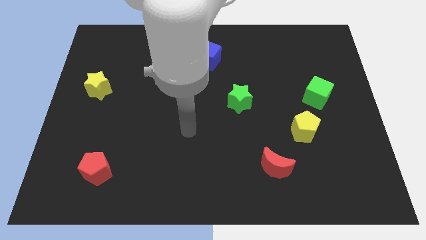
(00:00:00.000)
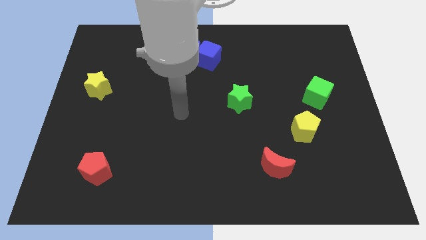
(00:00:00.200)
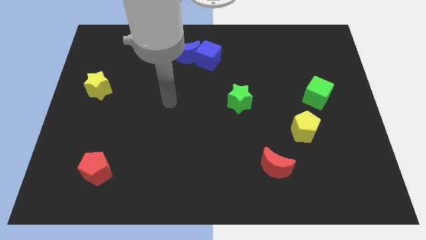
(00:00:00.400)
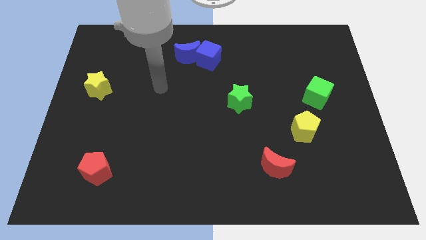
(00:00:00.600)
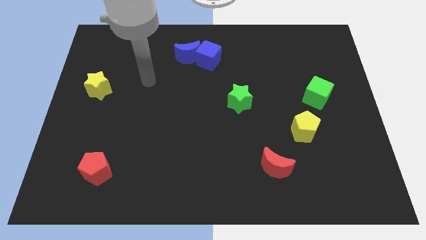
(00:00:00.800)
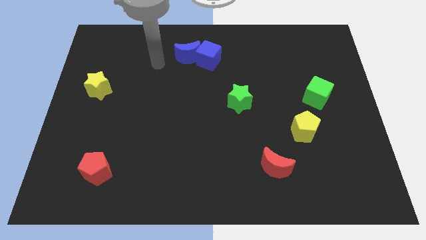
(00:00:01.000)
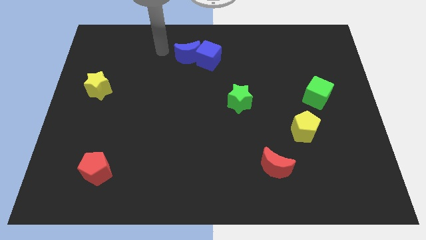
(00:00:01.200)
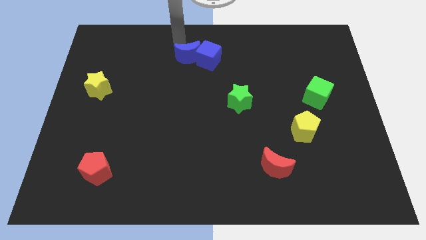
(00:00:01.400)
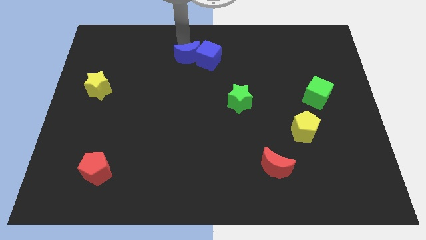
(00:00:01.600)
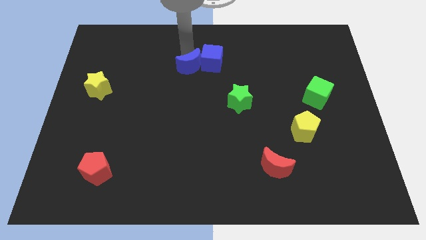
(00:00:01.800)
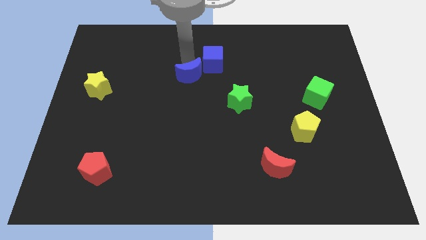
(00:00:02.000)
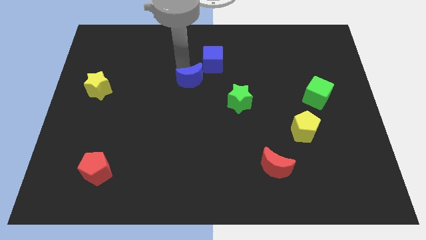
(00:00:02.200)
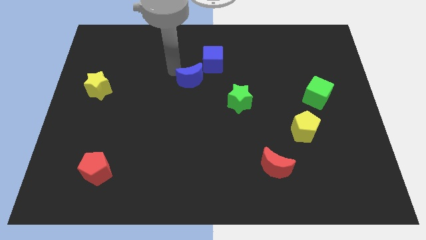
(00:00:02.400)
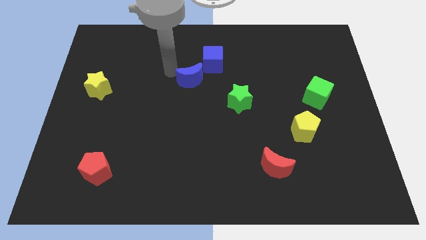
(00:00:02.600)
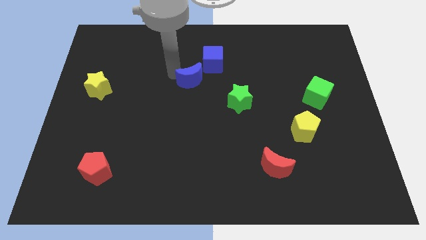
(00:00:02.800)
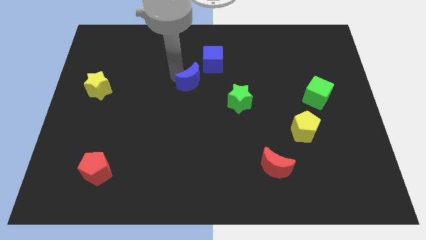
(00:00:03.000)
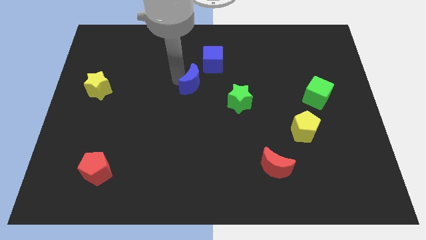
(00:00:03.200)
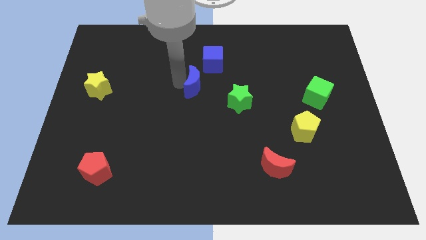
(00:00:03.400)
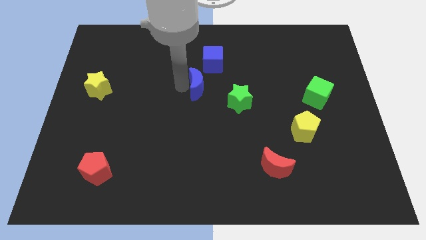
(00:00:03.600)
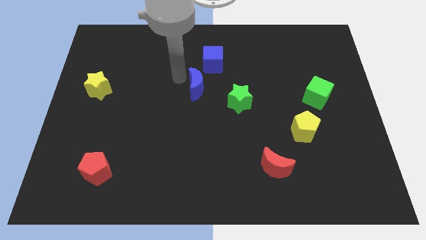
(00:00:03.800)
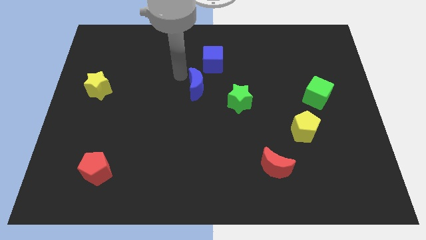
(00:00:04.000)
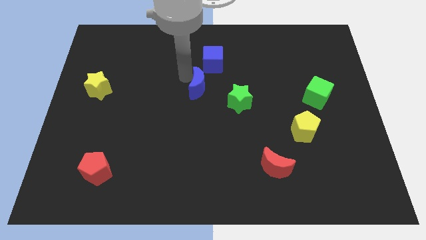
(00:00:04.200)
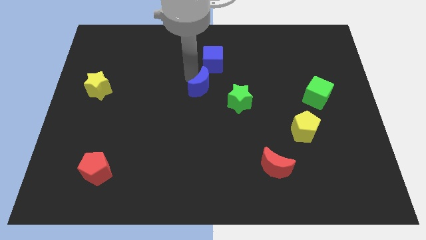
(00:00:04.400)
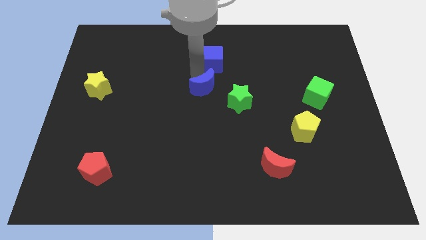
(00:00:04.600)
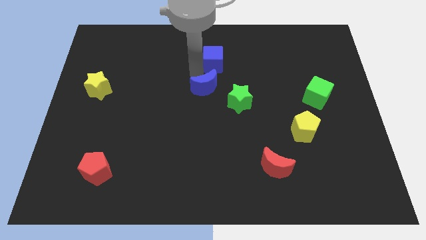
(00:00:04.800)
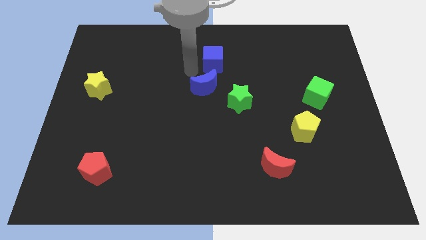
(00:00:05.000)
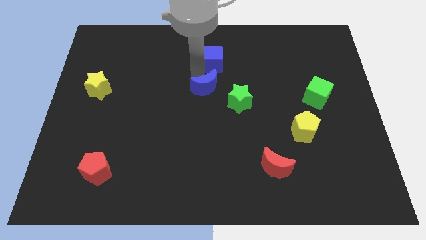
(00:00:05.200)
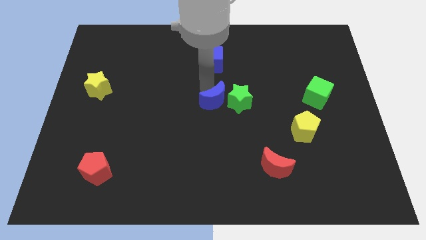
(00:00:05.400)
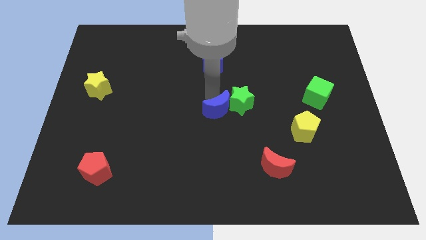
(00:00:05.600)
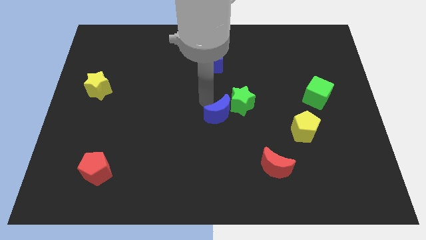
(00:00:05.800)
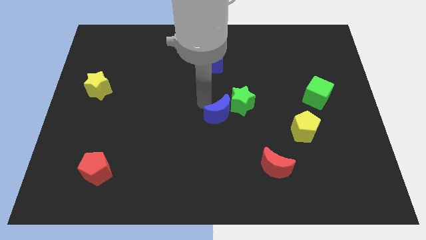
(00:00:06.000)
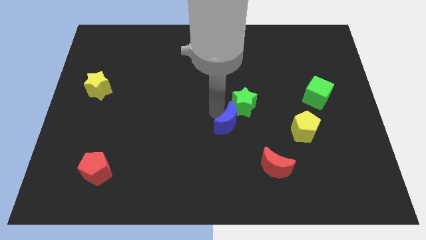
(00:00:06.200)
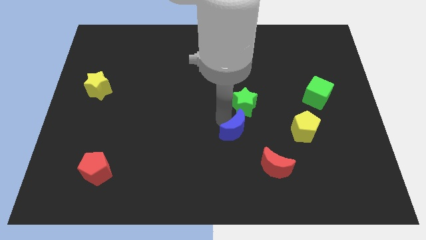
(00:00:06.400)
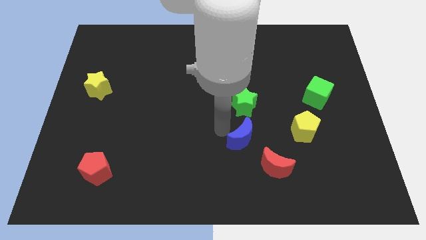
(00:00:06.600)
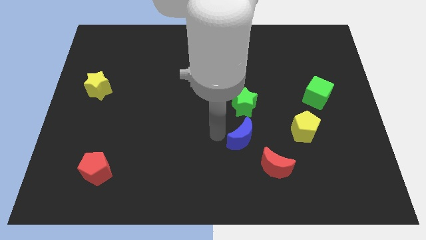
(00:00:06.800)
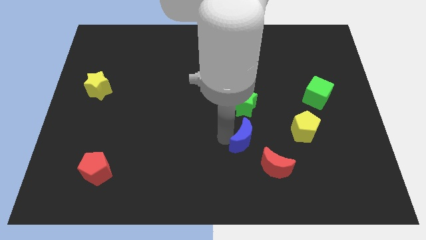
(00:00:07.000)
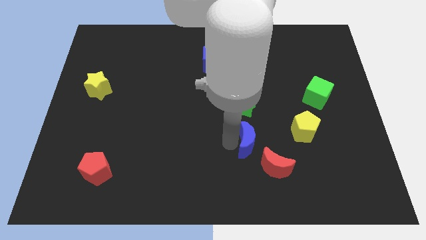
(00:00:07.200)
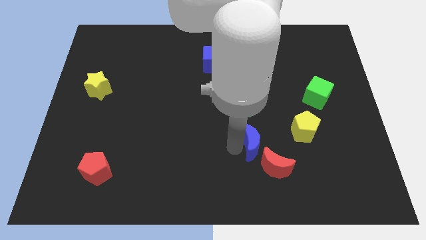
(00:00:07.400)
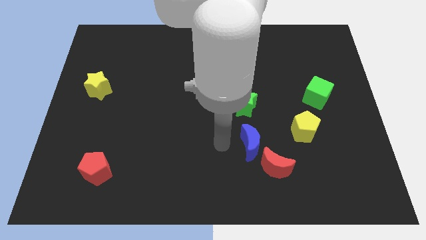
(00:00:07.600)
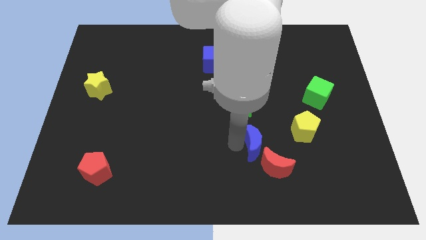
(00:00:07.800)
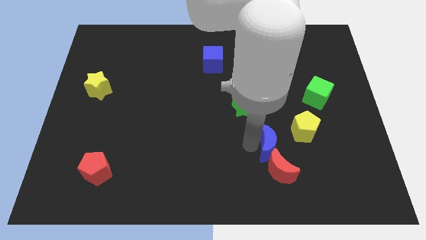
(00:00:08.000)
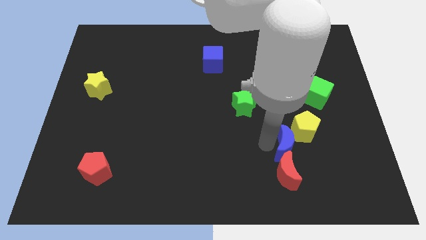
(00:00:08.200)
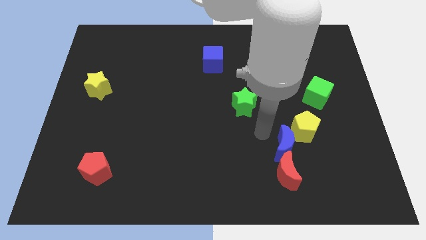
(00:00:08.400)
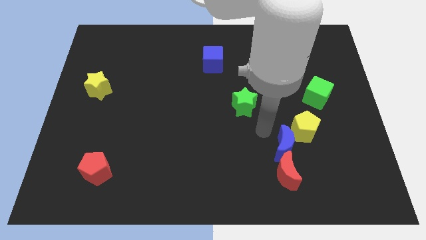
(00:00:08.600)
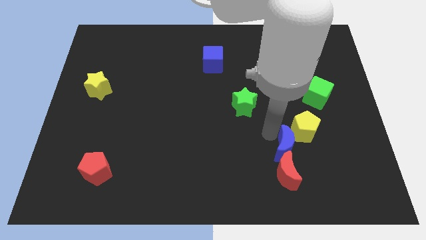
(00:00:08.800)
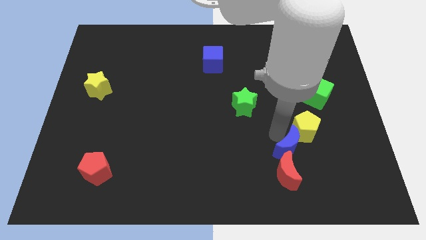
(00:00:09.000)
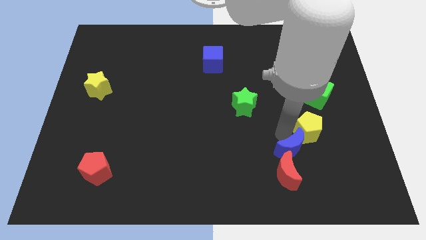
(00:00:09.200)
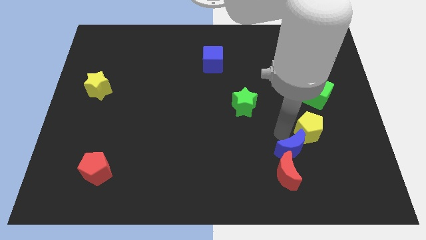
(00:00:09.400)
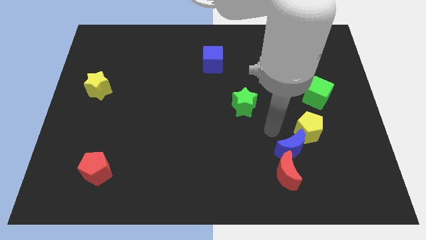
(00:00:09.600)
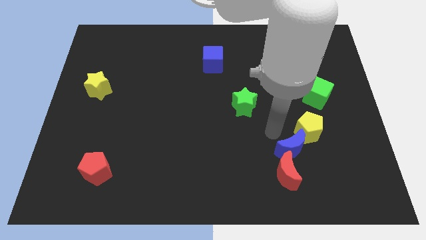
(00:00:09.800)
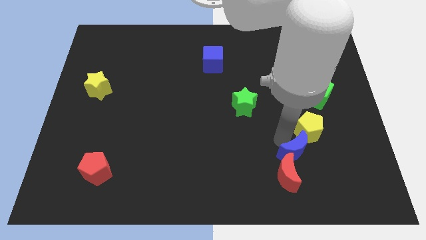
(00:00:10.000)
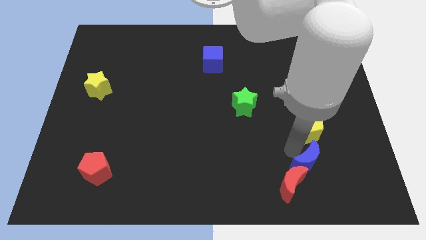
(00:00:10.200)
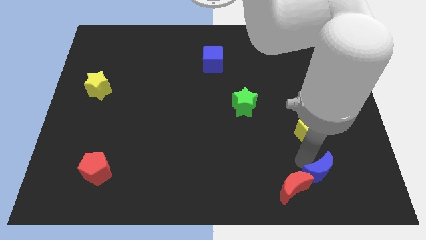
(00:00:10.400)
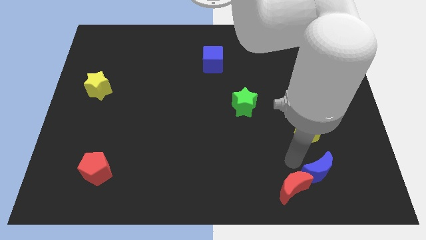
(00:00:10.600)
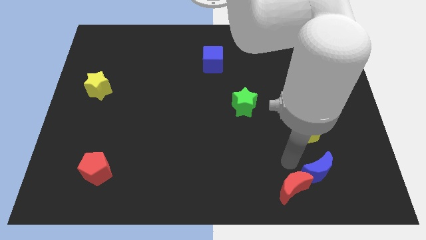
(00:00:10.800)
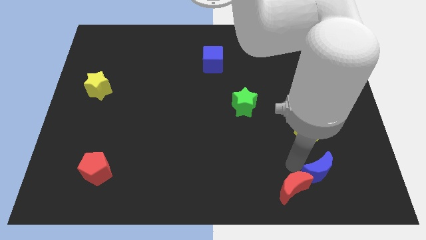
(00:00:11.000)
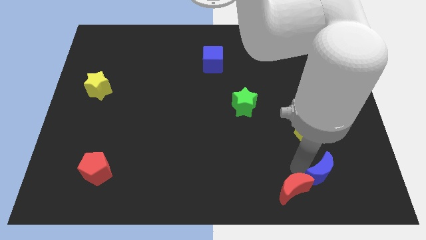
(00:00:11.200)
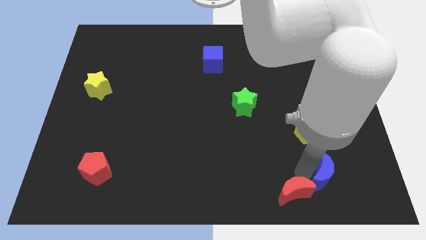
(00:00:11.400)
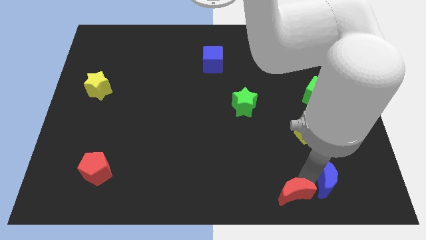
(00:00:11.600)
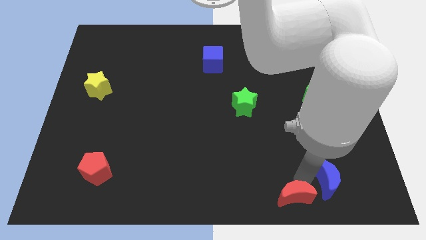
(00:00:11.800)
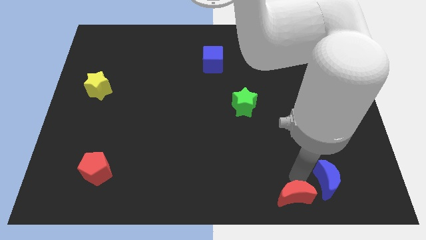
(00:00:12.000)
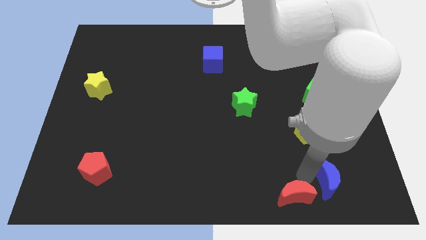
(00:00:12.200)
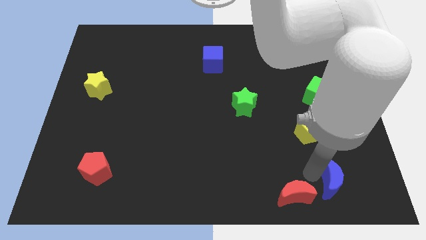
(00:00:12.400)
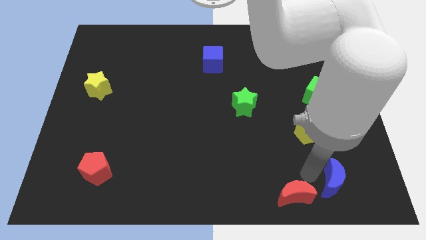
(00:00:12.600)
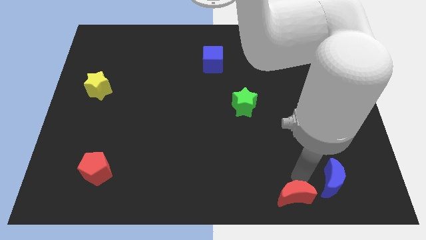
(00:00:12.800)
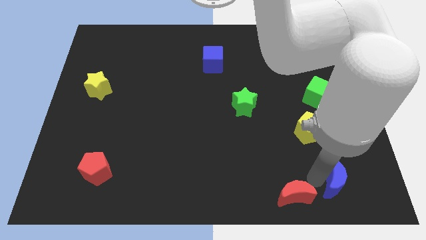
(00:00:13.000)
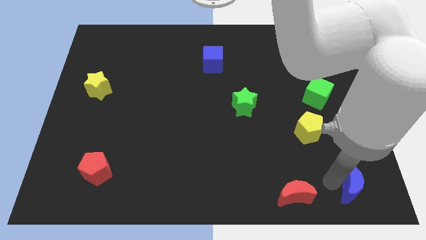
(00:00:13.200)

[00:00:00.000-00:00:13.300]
push the blue moon to the bottom right corner
